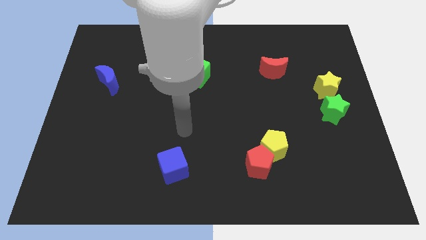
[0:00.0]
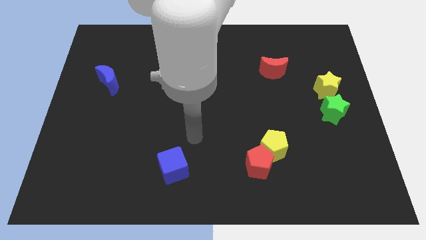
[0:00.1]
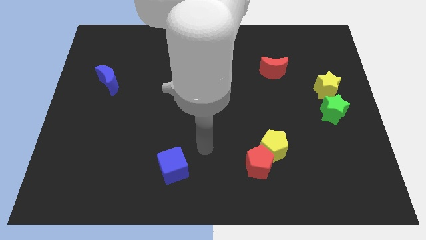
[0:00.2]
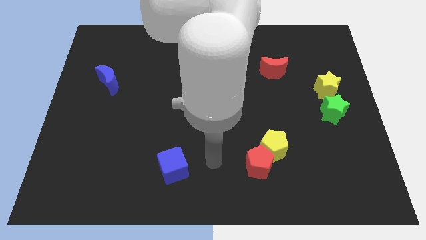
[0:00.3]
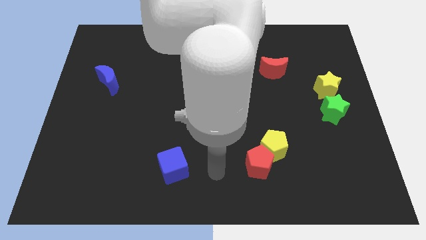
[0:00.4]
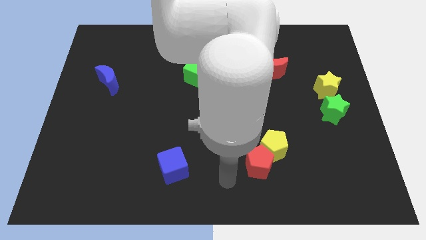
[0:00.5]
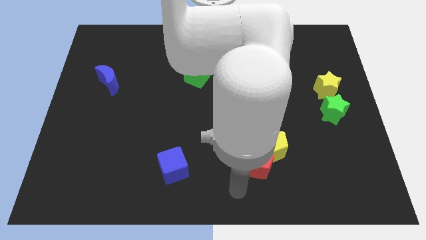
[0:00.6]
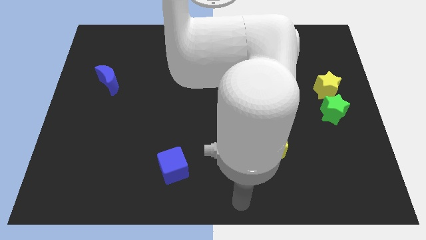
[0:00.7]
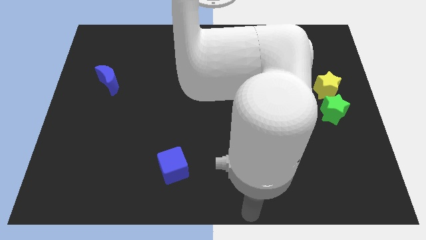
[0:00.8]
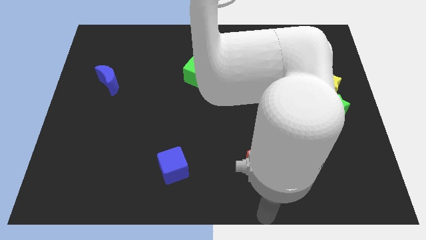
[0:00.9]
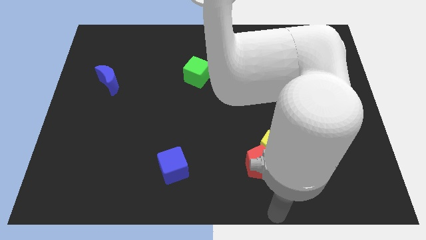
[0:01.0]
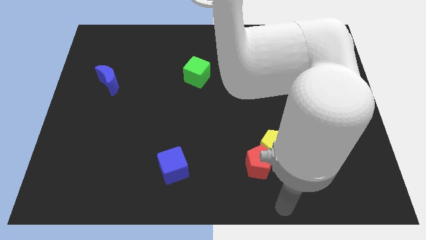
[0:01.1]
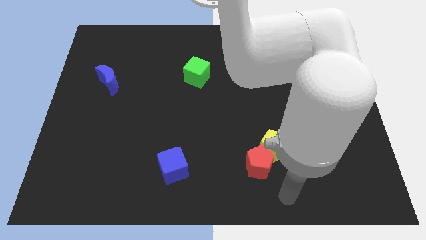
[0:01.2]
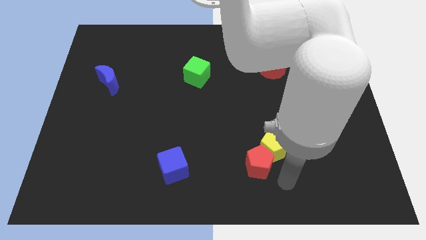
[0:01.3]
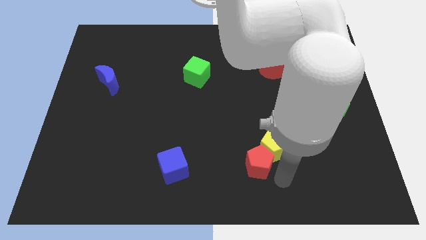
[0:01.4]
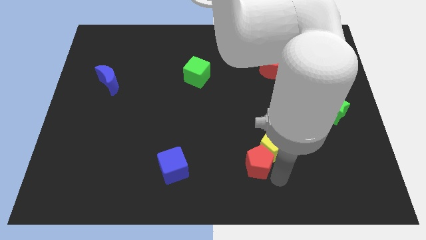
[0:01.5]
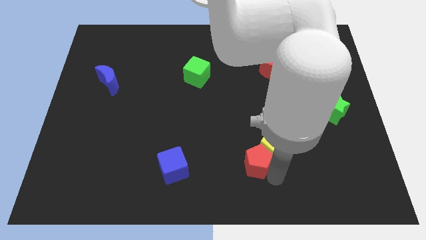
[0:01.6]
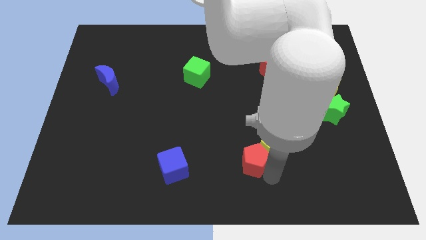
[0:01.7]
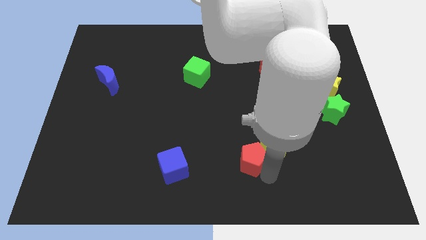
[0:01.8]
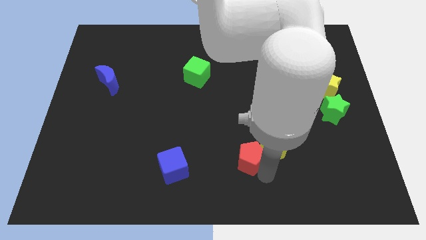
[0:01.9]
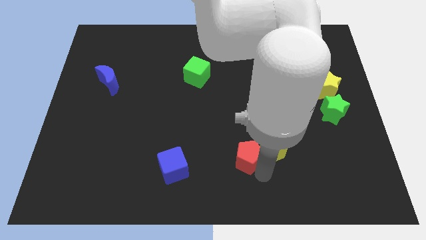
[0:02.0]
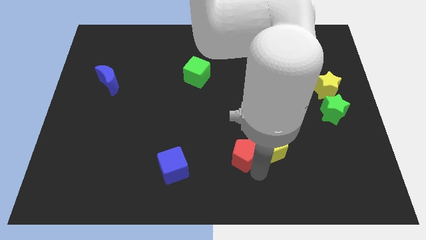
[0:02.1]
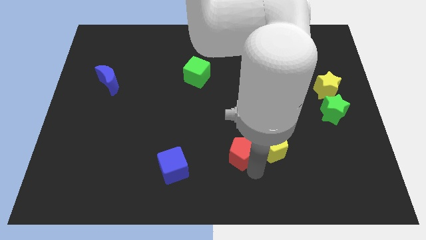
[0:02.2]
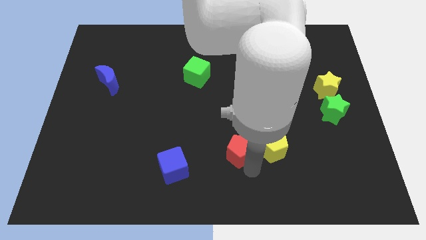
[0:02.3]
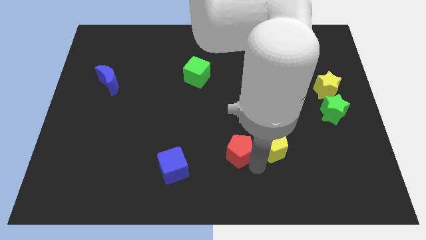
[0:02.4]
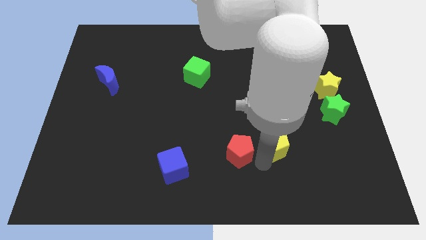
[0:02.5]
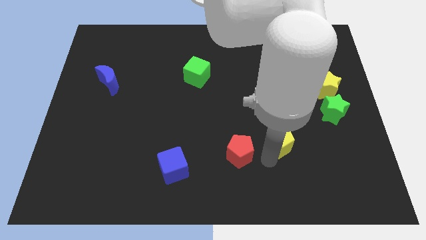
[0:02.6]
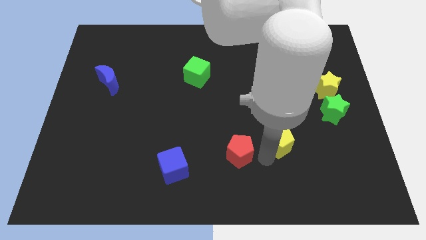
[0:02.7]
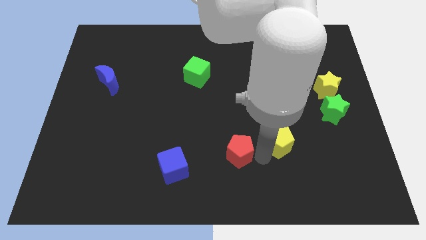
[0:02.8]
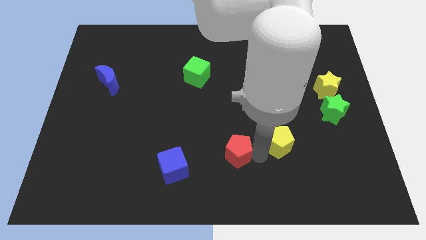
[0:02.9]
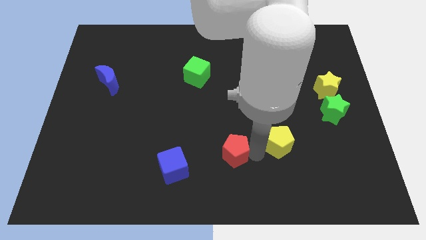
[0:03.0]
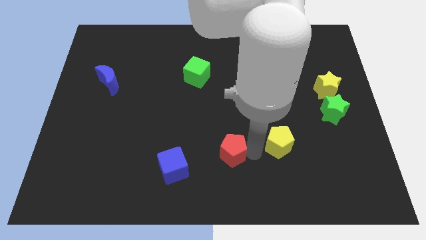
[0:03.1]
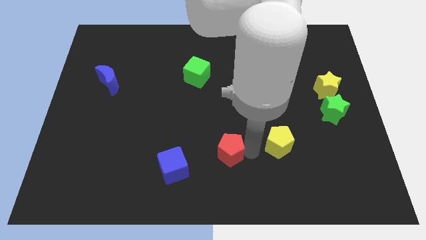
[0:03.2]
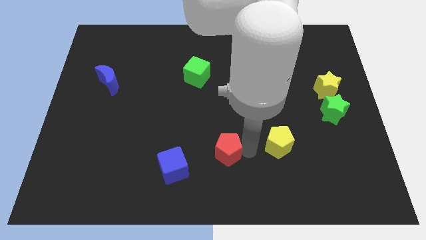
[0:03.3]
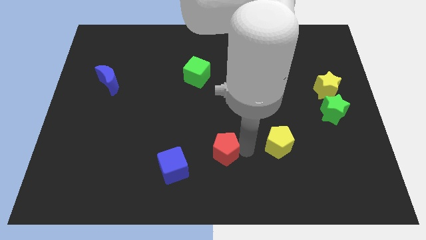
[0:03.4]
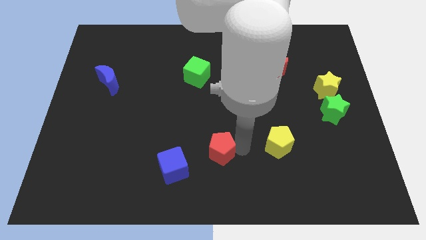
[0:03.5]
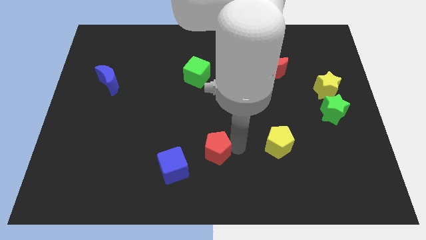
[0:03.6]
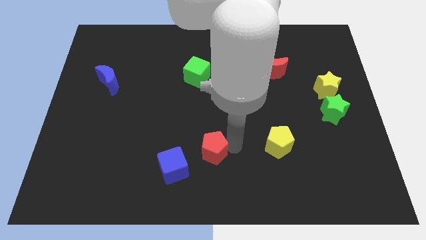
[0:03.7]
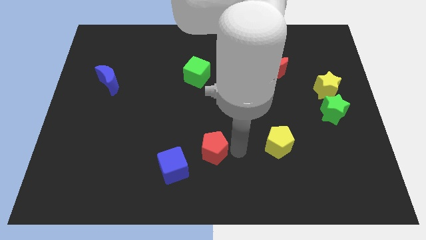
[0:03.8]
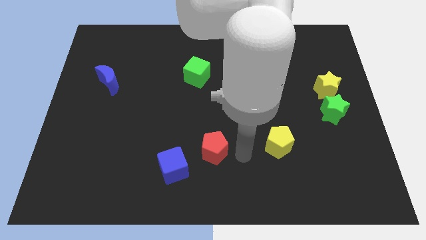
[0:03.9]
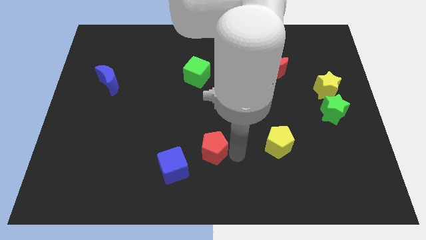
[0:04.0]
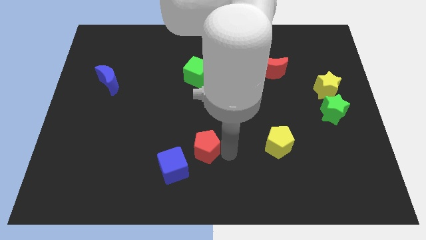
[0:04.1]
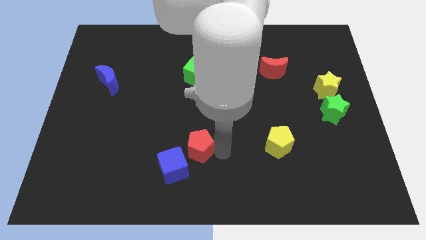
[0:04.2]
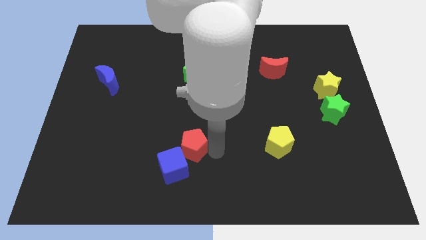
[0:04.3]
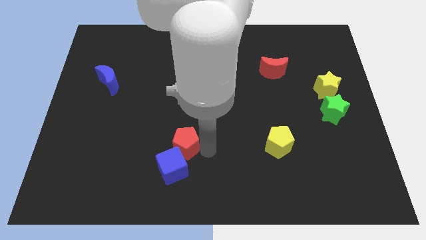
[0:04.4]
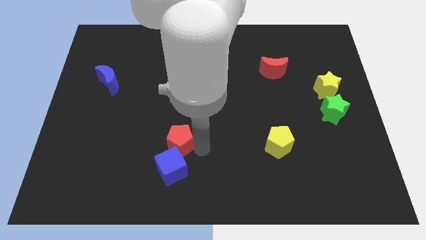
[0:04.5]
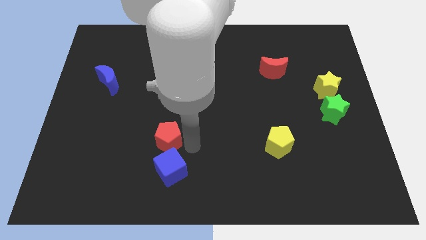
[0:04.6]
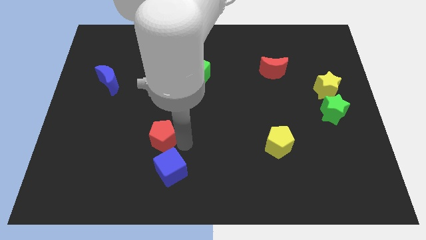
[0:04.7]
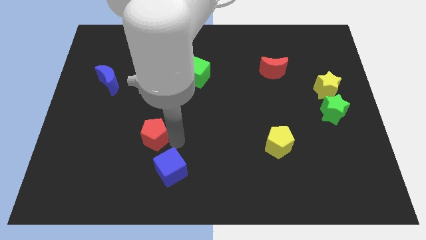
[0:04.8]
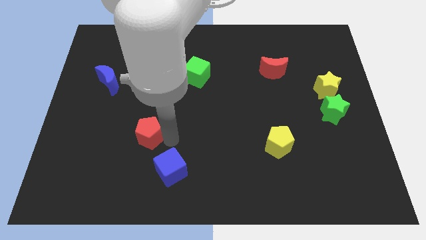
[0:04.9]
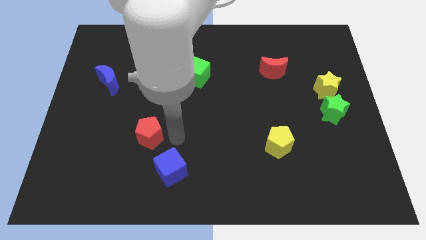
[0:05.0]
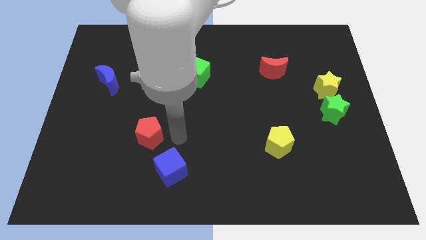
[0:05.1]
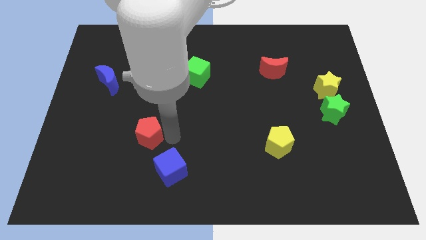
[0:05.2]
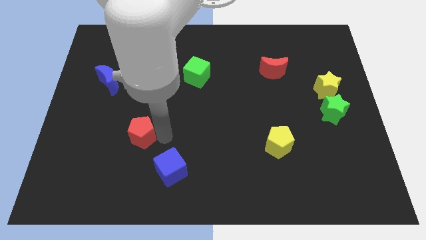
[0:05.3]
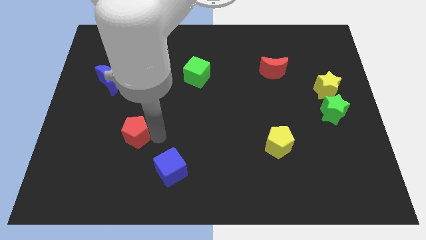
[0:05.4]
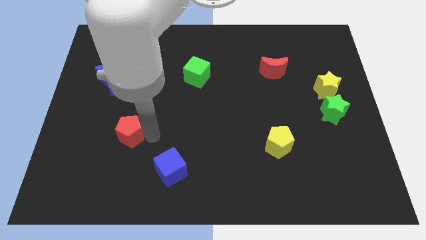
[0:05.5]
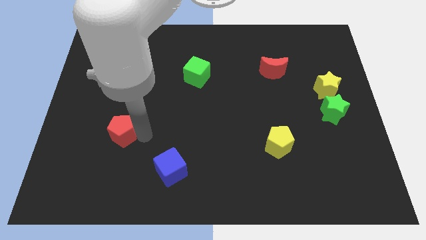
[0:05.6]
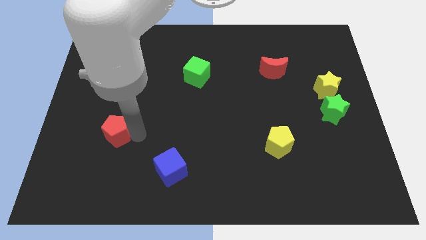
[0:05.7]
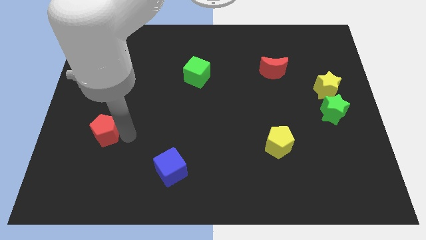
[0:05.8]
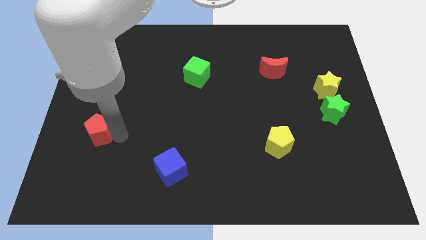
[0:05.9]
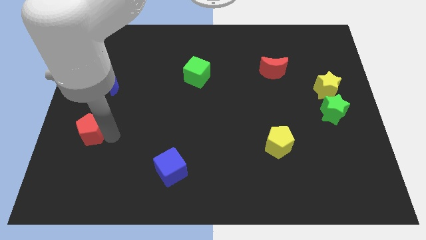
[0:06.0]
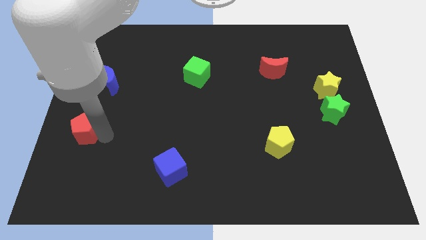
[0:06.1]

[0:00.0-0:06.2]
put the red pentagon to the left side

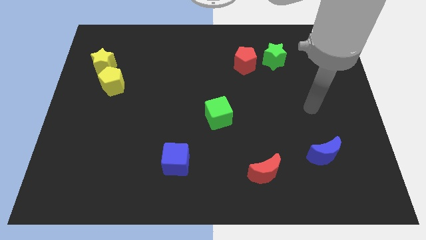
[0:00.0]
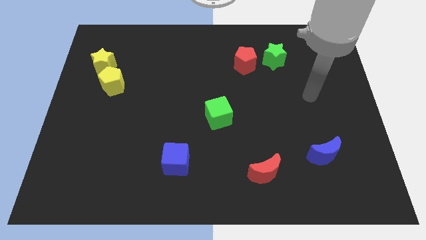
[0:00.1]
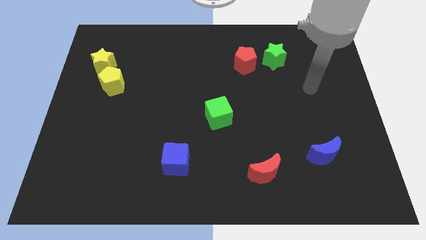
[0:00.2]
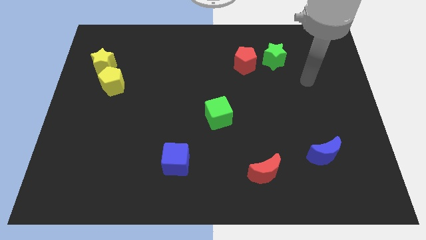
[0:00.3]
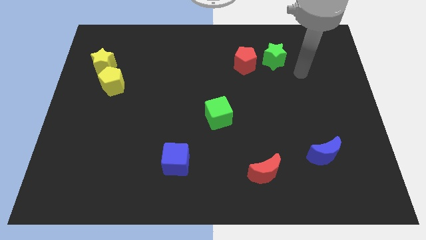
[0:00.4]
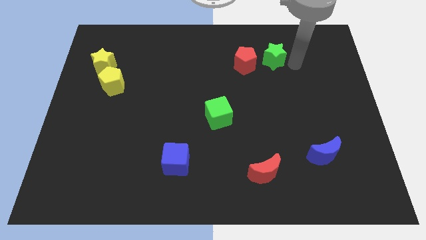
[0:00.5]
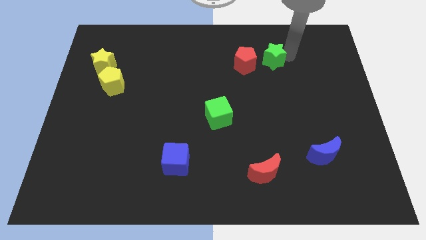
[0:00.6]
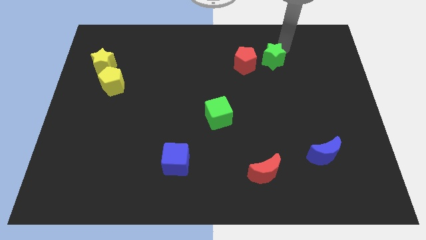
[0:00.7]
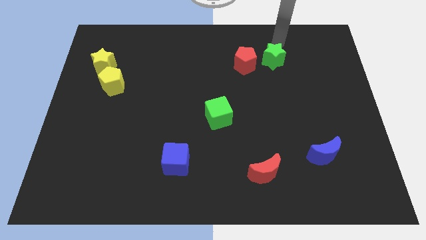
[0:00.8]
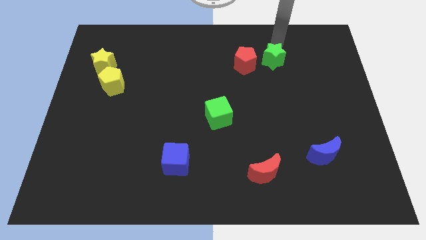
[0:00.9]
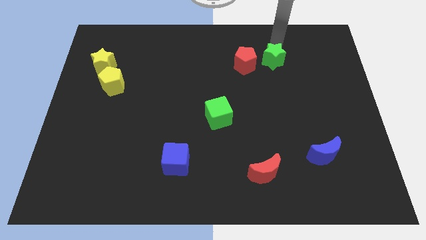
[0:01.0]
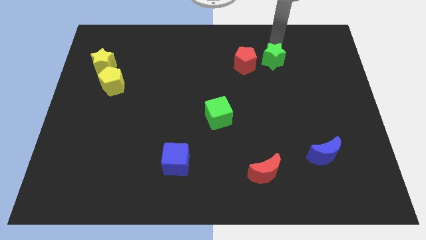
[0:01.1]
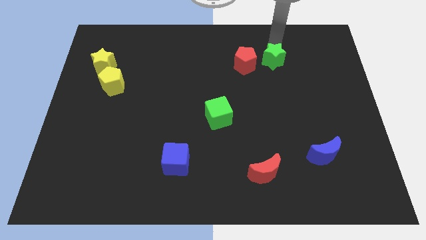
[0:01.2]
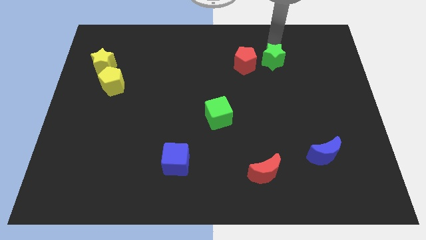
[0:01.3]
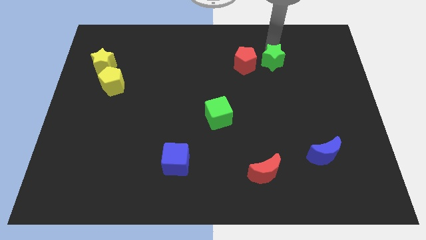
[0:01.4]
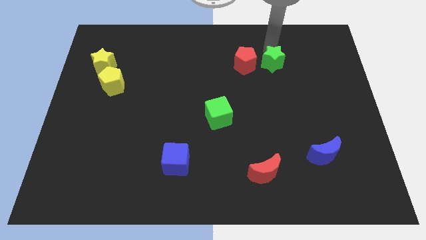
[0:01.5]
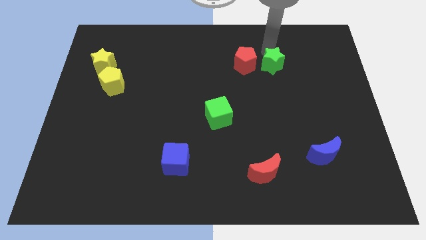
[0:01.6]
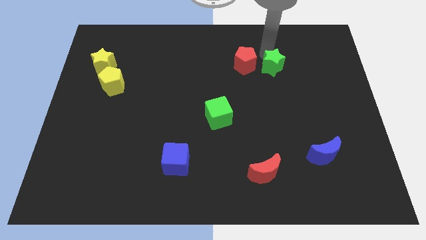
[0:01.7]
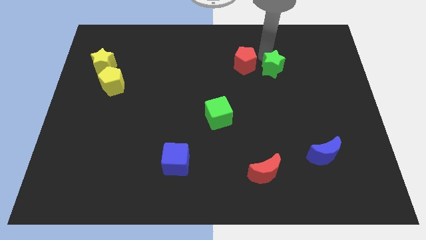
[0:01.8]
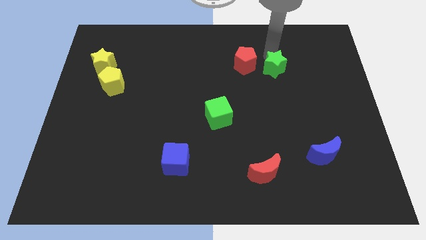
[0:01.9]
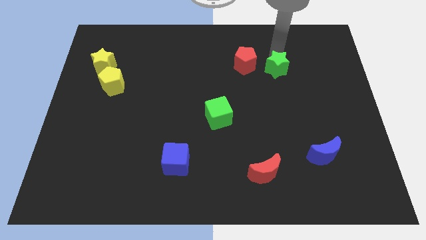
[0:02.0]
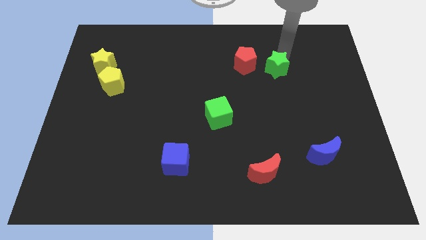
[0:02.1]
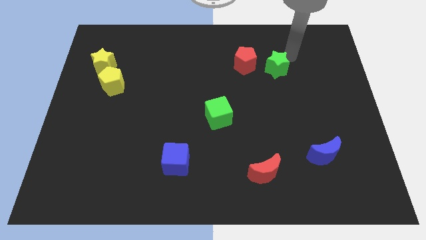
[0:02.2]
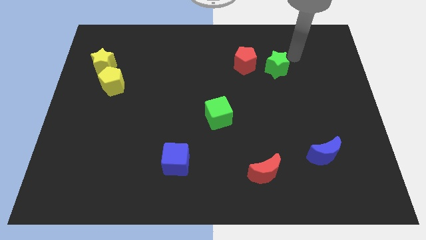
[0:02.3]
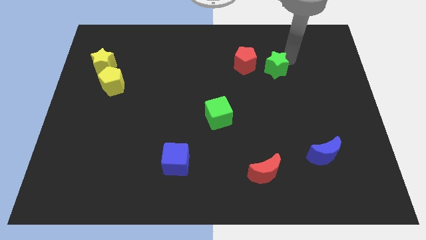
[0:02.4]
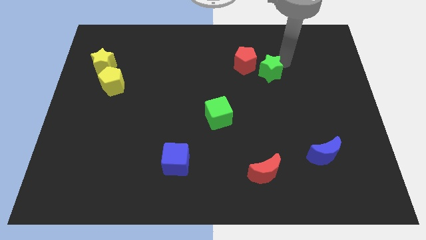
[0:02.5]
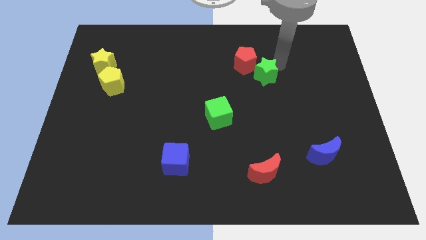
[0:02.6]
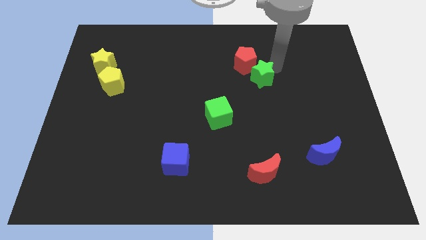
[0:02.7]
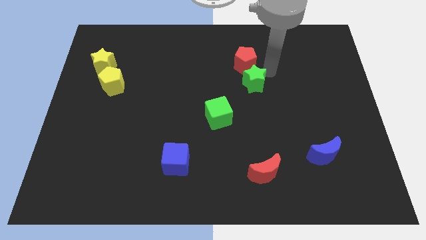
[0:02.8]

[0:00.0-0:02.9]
put the green star to the center of the board
